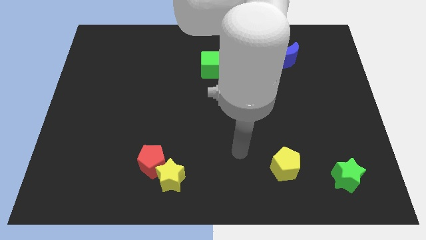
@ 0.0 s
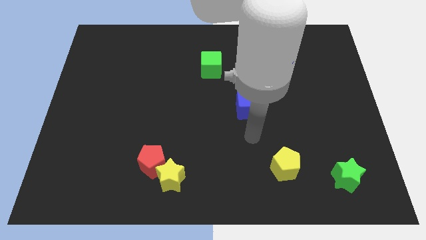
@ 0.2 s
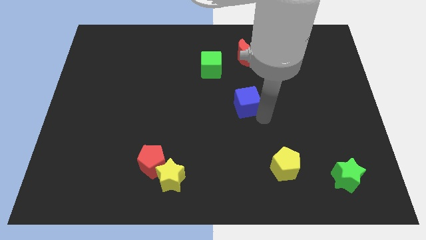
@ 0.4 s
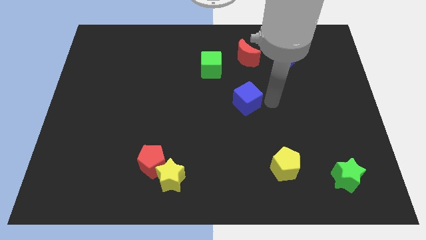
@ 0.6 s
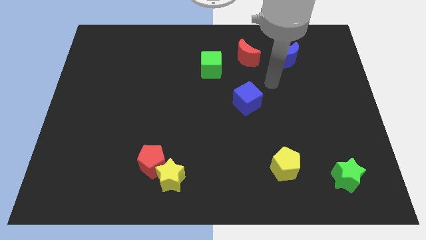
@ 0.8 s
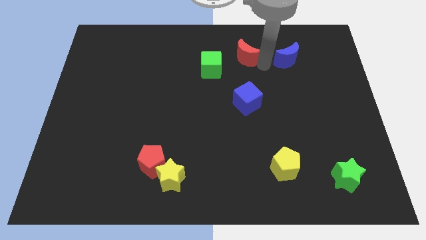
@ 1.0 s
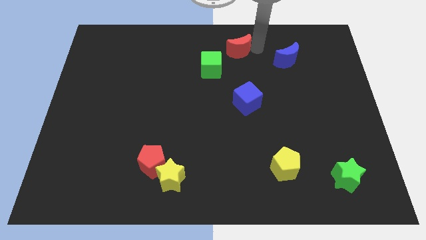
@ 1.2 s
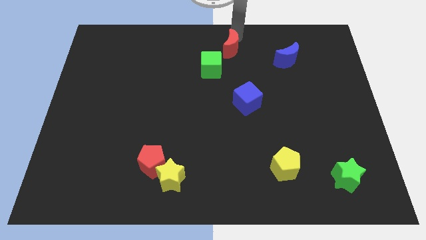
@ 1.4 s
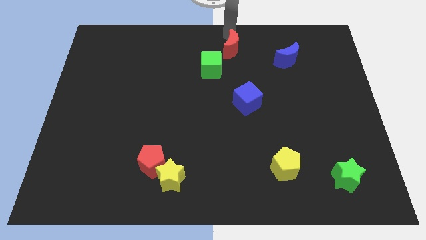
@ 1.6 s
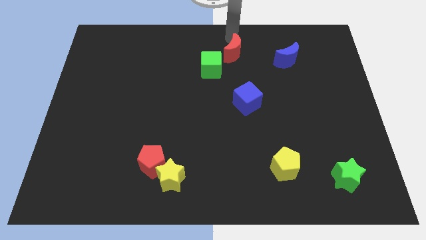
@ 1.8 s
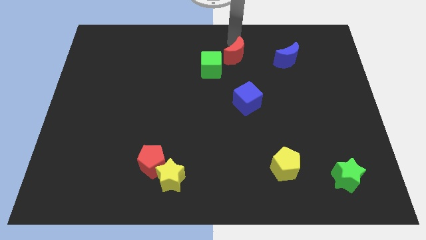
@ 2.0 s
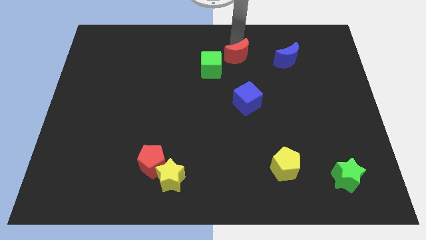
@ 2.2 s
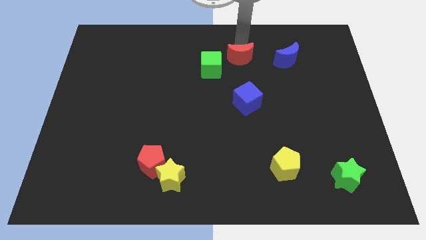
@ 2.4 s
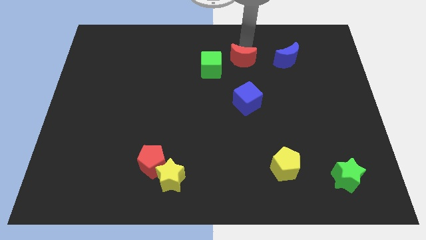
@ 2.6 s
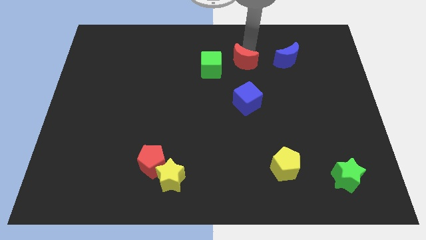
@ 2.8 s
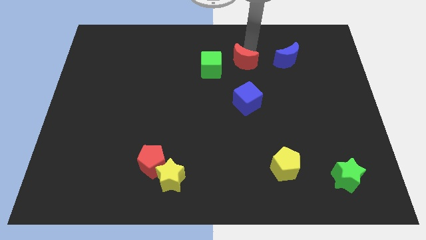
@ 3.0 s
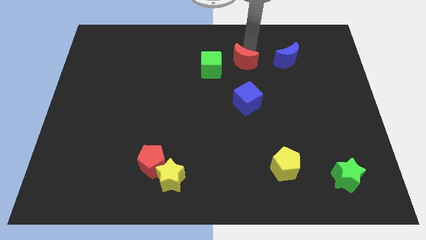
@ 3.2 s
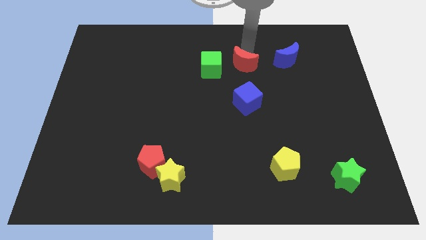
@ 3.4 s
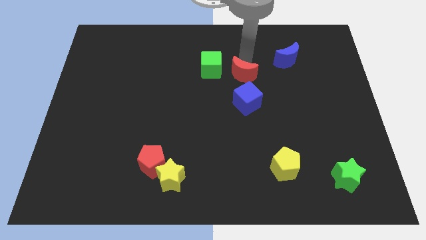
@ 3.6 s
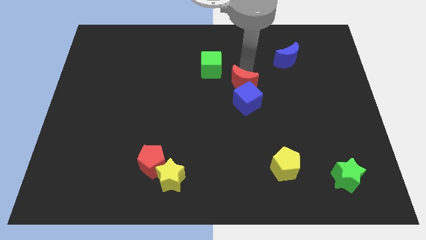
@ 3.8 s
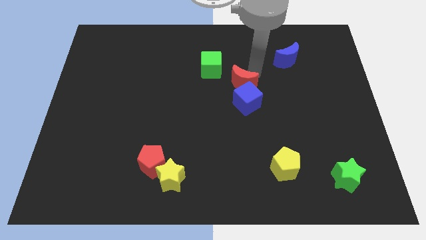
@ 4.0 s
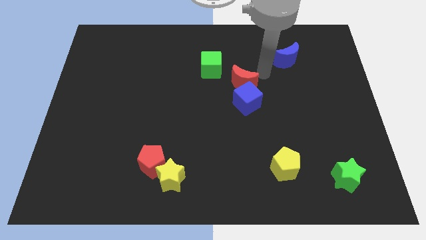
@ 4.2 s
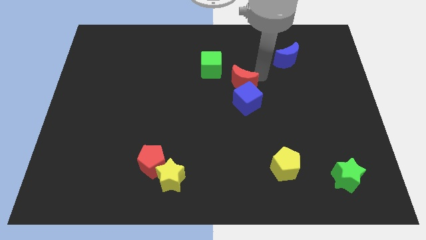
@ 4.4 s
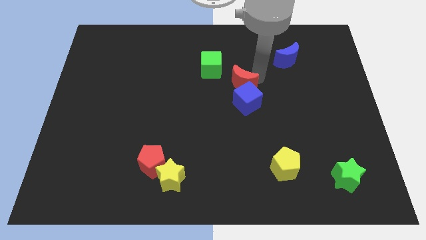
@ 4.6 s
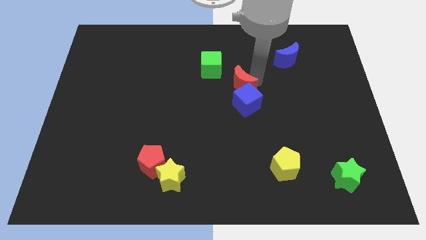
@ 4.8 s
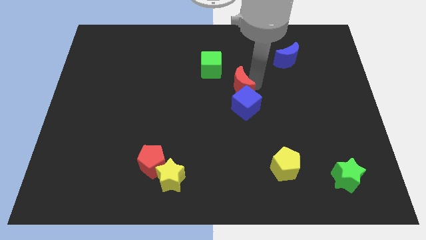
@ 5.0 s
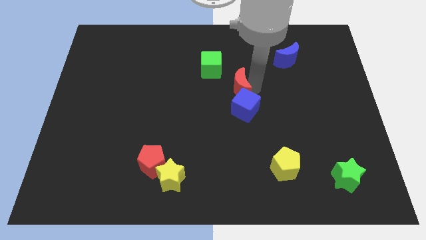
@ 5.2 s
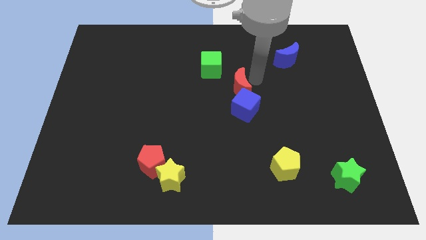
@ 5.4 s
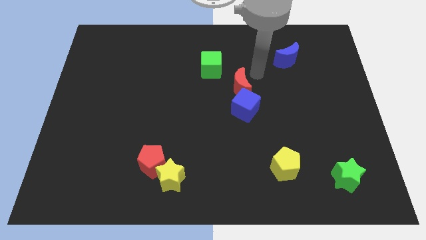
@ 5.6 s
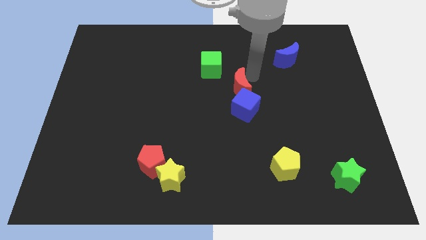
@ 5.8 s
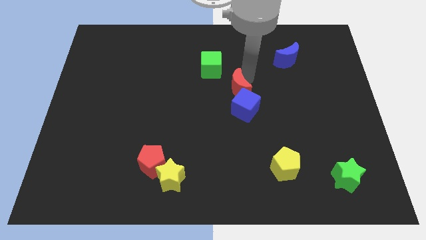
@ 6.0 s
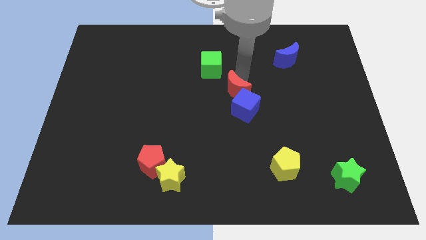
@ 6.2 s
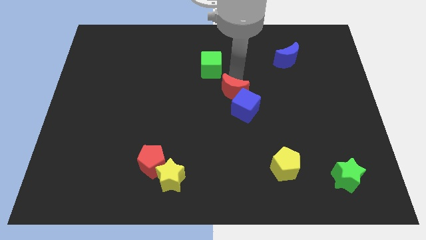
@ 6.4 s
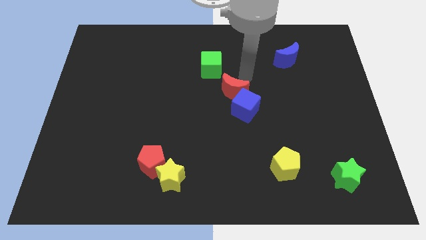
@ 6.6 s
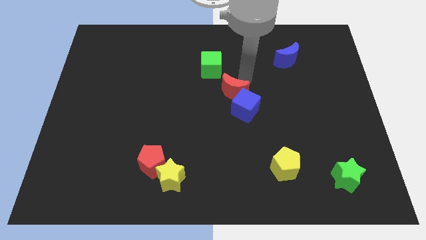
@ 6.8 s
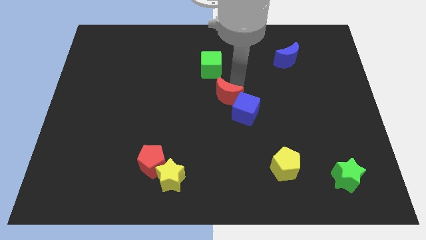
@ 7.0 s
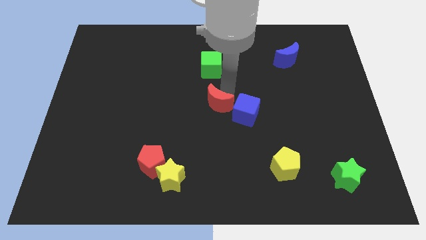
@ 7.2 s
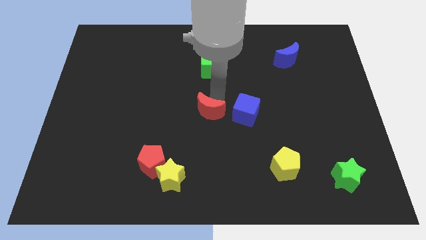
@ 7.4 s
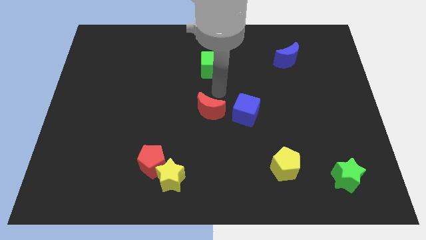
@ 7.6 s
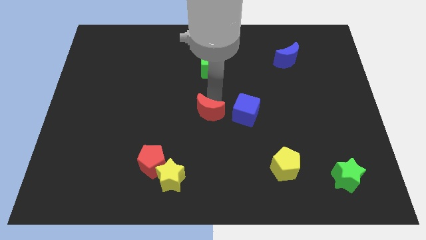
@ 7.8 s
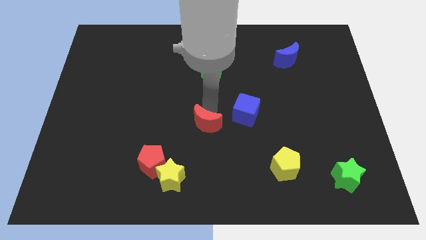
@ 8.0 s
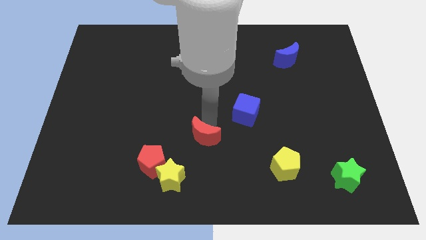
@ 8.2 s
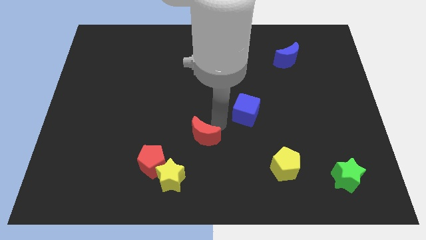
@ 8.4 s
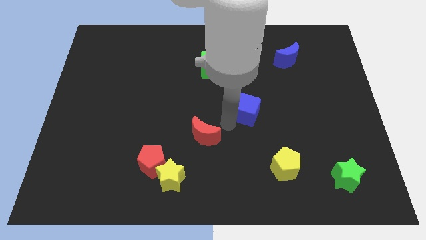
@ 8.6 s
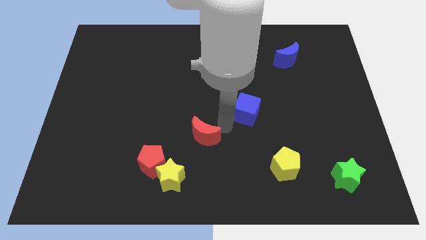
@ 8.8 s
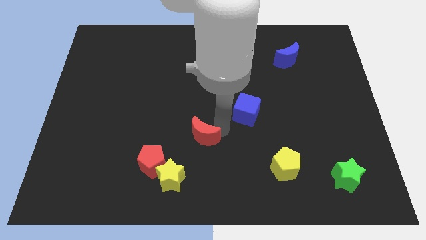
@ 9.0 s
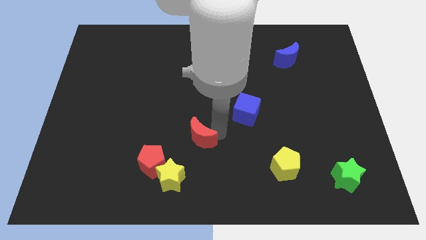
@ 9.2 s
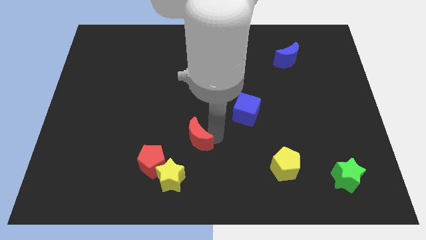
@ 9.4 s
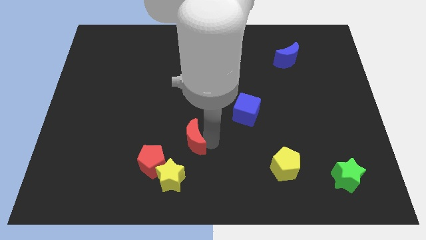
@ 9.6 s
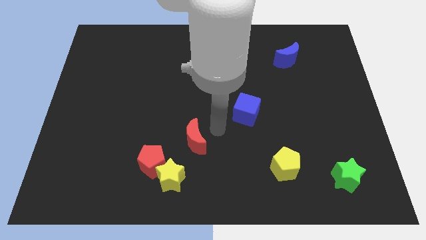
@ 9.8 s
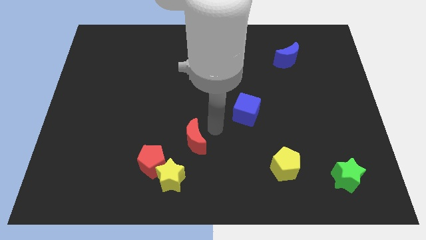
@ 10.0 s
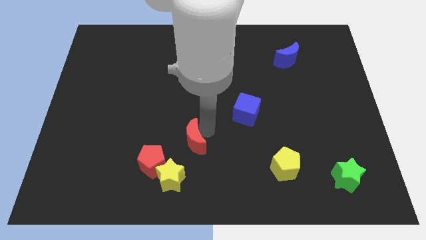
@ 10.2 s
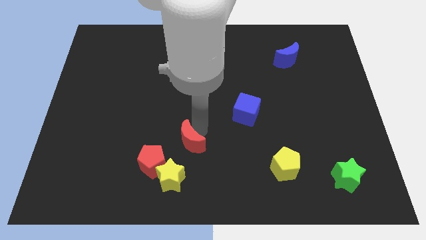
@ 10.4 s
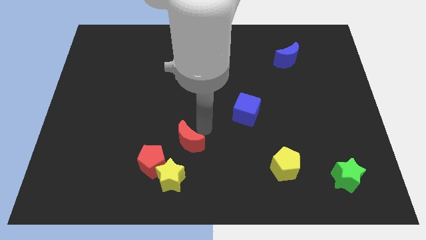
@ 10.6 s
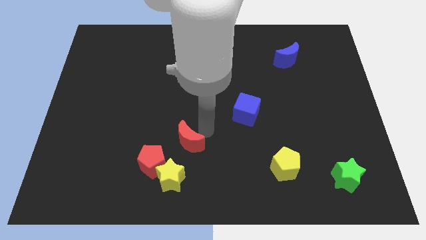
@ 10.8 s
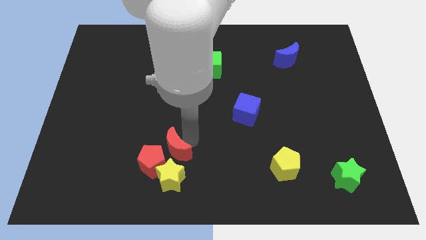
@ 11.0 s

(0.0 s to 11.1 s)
slide the red moon next to the red pentagon

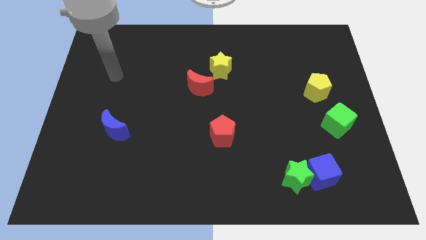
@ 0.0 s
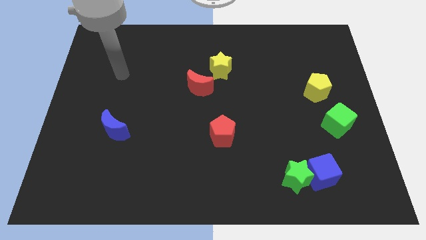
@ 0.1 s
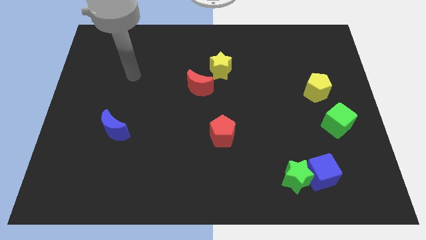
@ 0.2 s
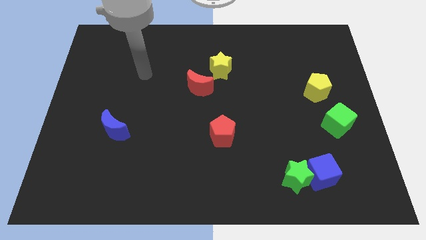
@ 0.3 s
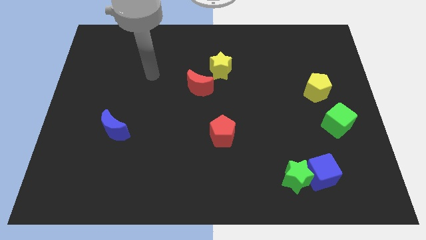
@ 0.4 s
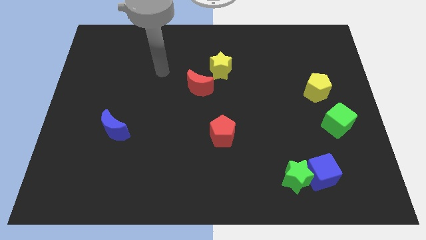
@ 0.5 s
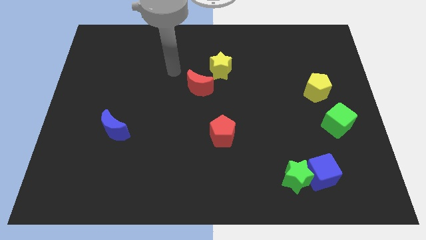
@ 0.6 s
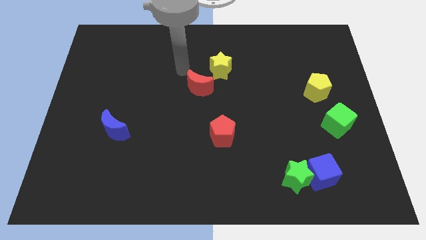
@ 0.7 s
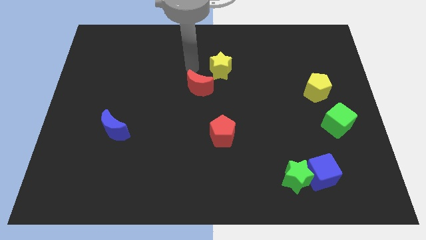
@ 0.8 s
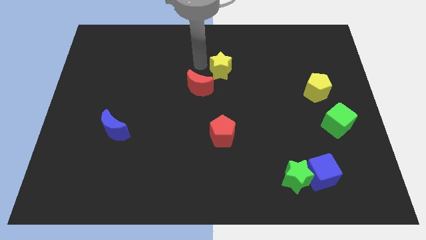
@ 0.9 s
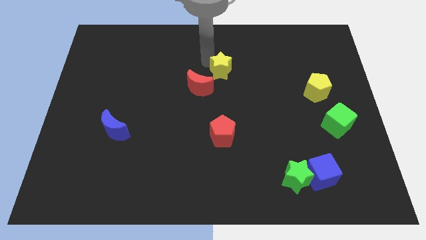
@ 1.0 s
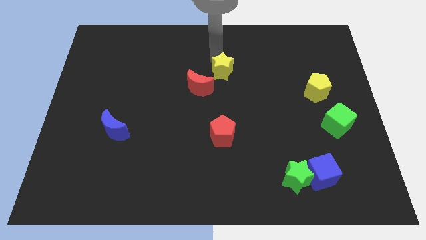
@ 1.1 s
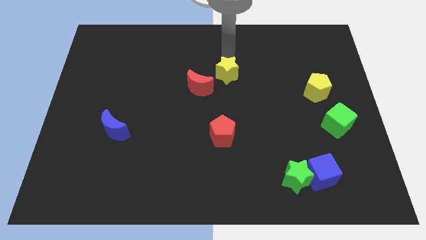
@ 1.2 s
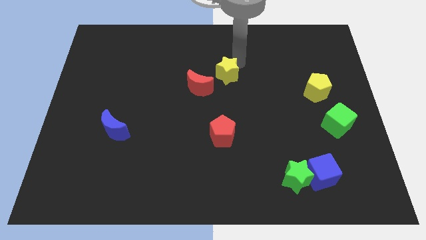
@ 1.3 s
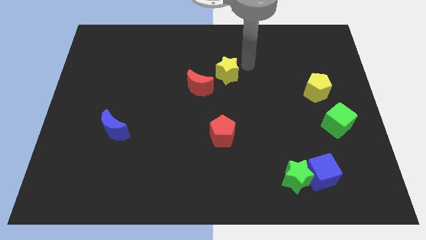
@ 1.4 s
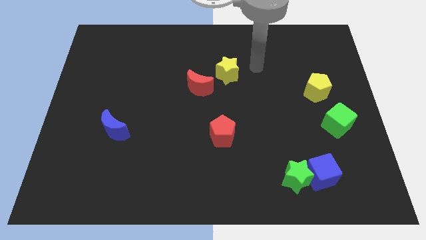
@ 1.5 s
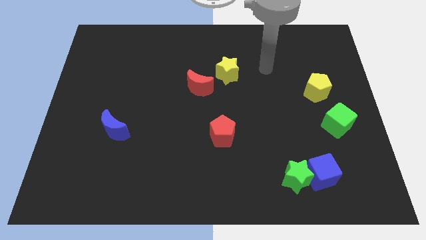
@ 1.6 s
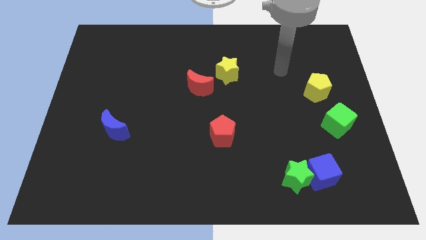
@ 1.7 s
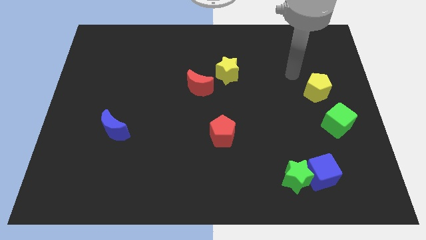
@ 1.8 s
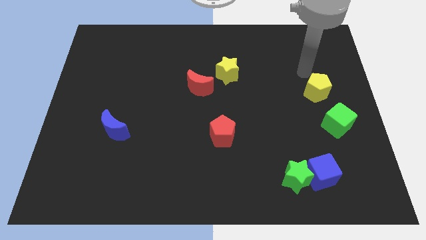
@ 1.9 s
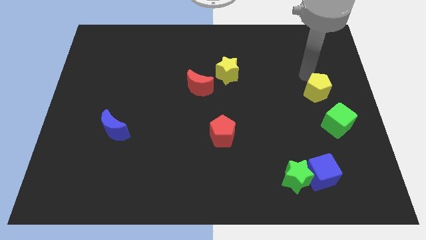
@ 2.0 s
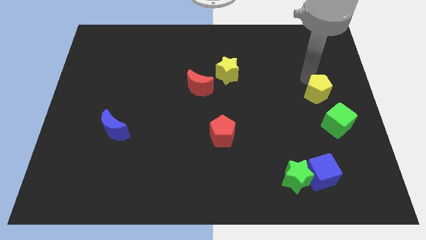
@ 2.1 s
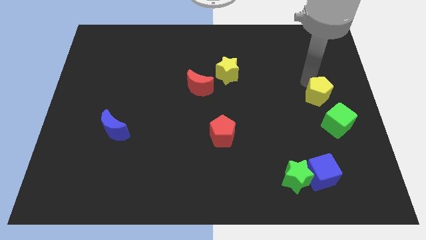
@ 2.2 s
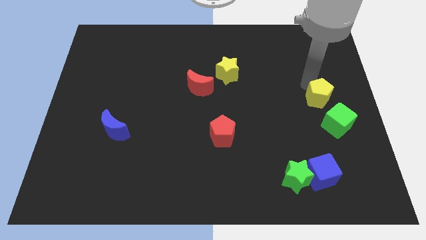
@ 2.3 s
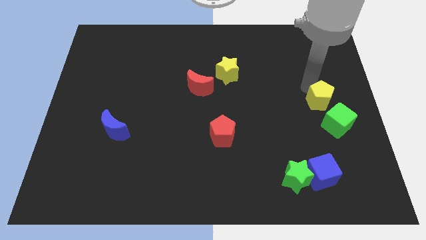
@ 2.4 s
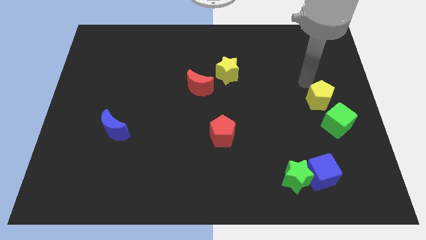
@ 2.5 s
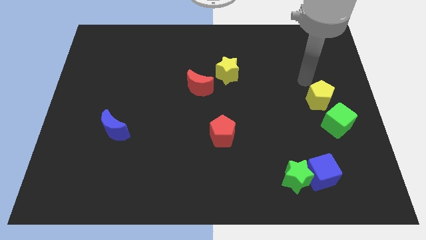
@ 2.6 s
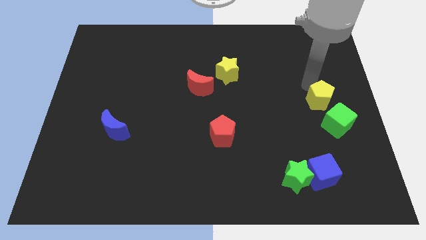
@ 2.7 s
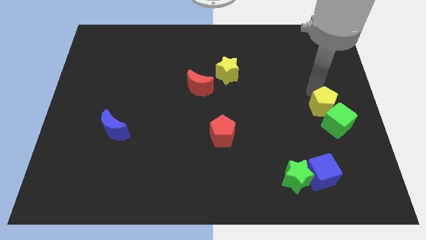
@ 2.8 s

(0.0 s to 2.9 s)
slide the yellow pentagon next to the green cube
